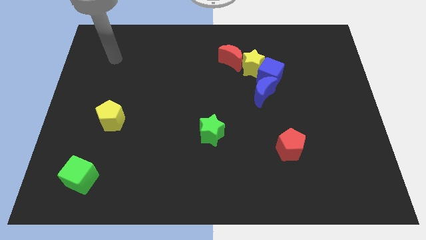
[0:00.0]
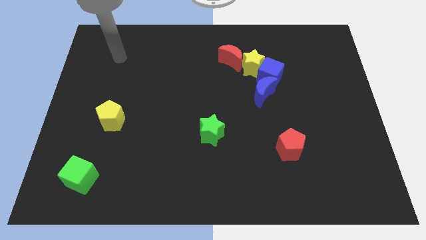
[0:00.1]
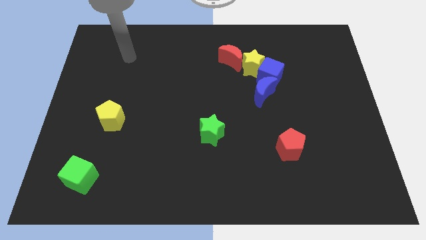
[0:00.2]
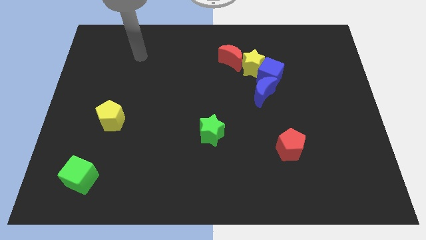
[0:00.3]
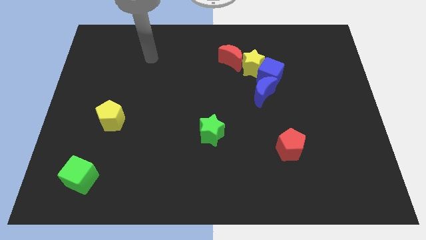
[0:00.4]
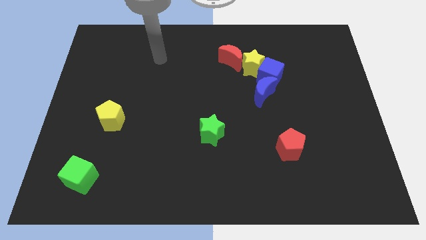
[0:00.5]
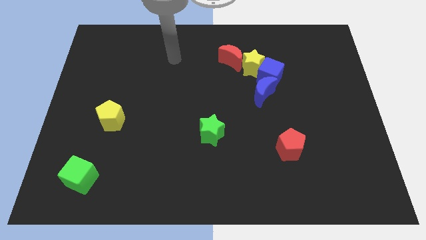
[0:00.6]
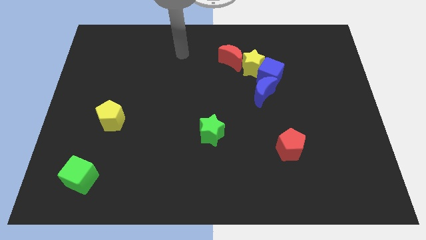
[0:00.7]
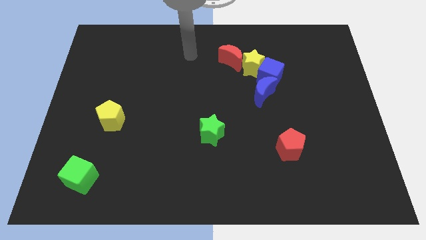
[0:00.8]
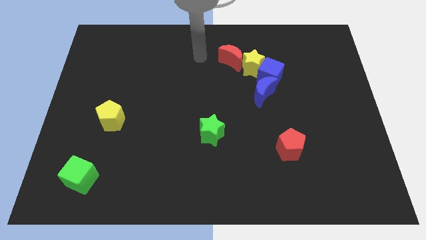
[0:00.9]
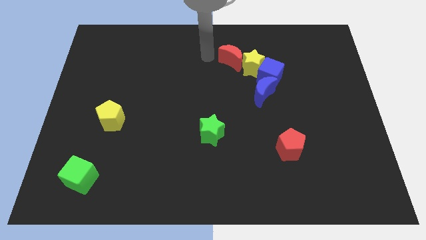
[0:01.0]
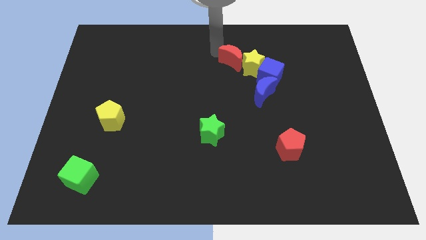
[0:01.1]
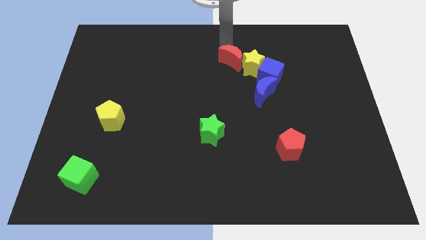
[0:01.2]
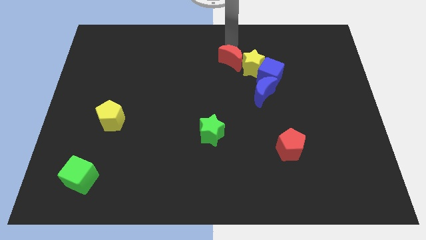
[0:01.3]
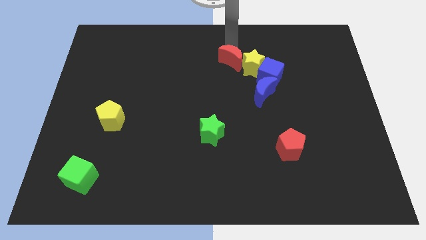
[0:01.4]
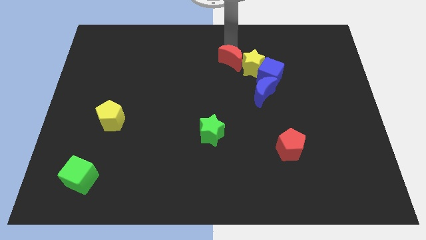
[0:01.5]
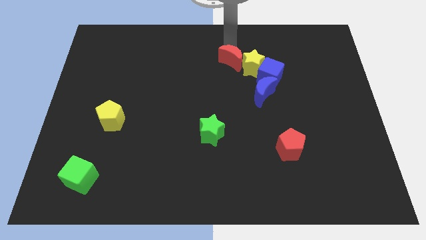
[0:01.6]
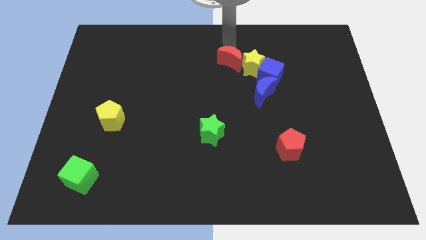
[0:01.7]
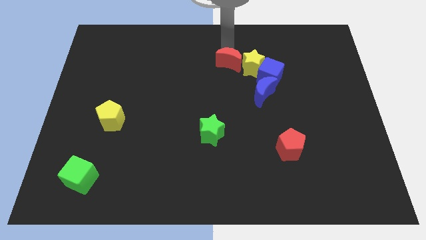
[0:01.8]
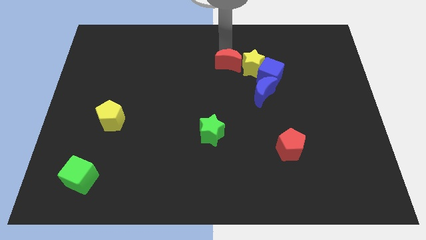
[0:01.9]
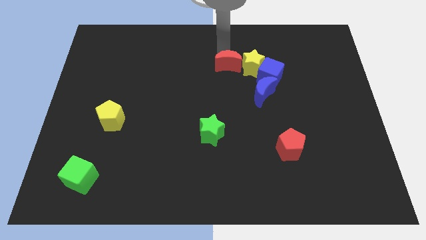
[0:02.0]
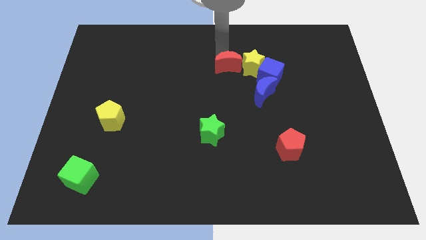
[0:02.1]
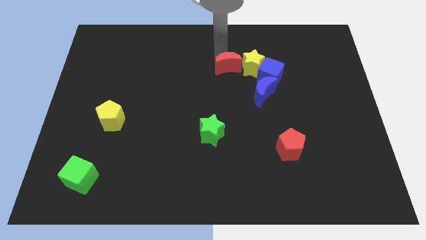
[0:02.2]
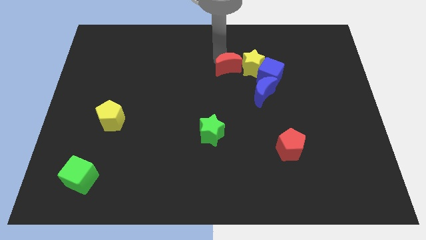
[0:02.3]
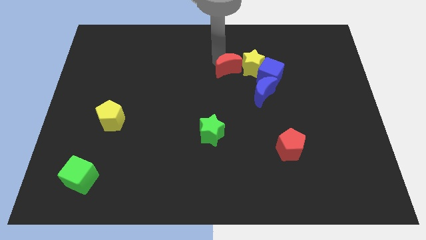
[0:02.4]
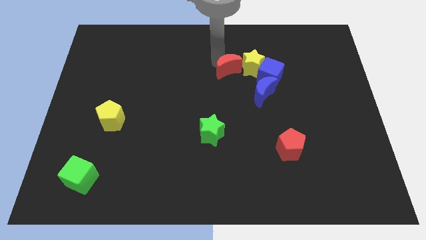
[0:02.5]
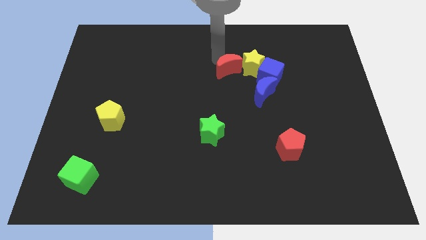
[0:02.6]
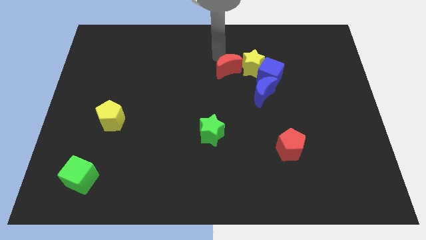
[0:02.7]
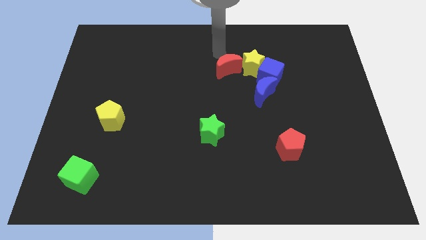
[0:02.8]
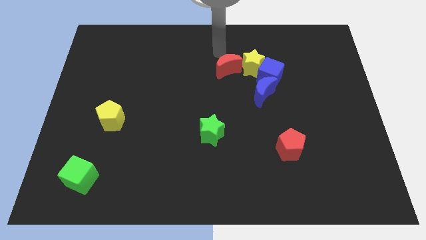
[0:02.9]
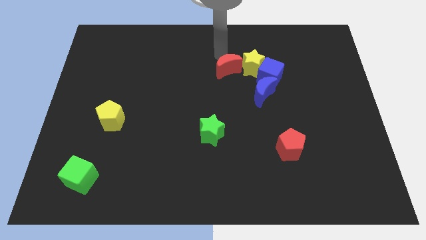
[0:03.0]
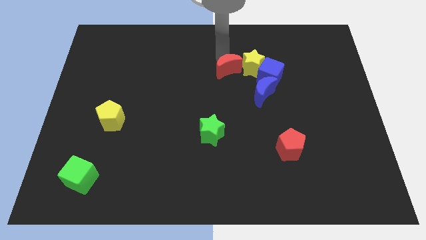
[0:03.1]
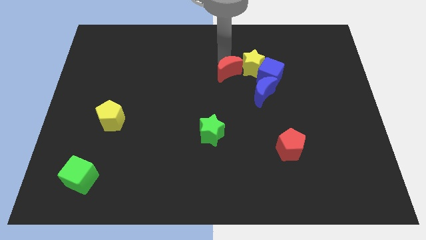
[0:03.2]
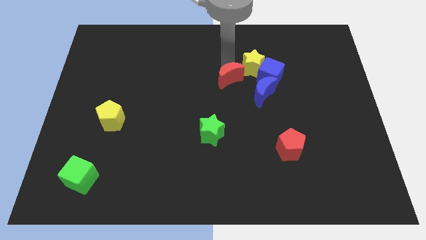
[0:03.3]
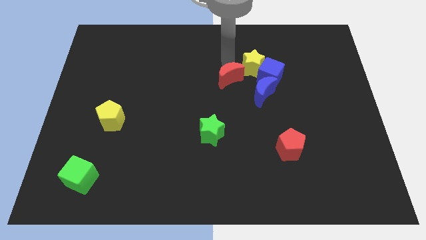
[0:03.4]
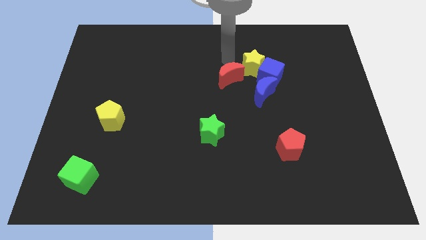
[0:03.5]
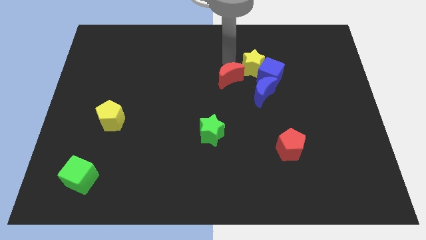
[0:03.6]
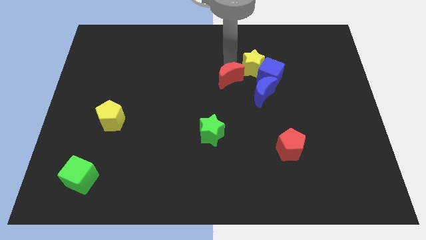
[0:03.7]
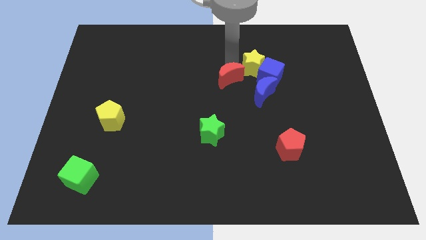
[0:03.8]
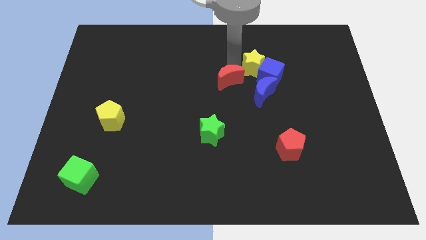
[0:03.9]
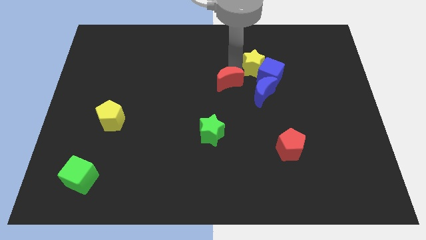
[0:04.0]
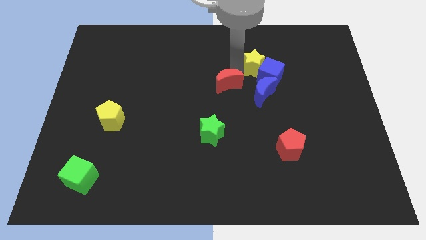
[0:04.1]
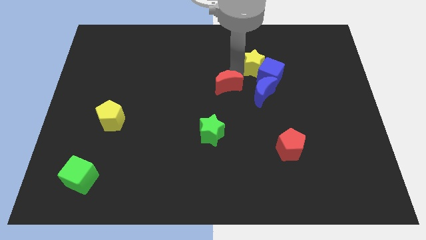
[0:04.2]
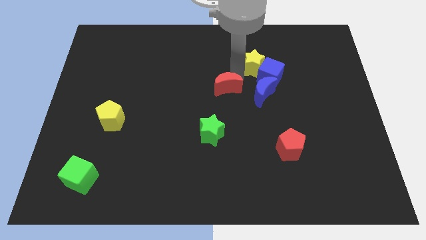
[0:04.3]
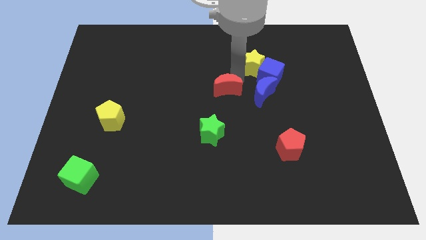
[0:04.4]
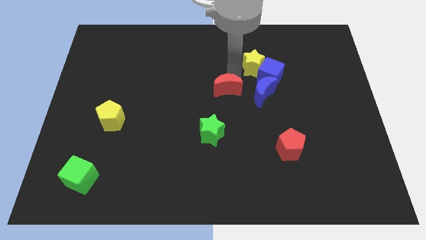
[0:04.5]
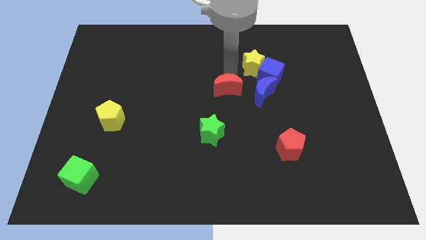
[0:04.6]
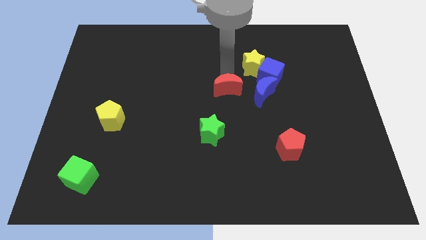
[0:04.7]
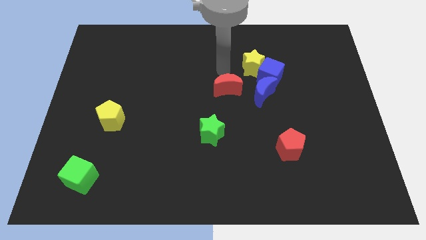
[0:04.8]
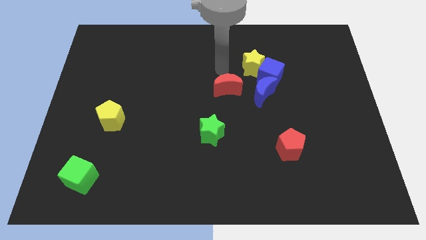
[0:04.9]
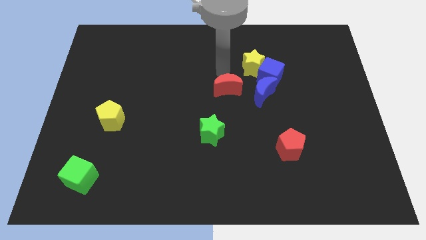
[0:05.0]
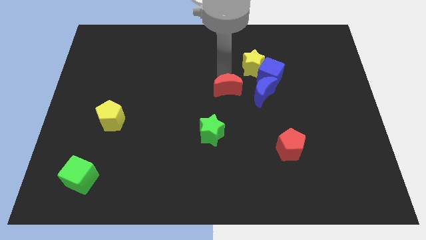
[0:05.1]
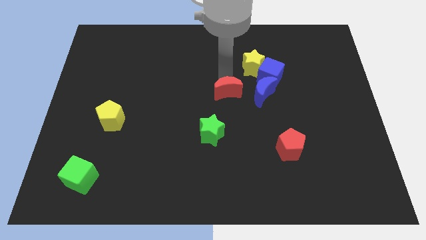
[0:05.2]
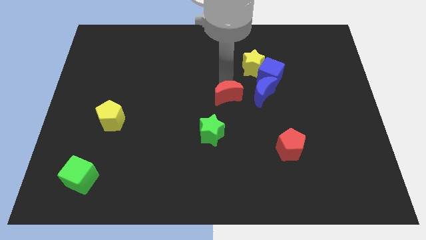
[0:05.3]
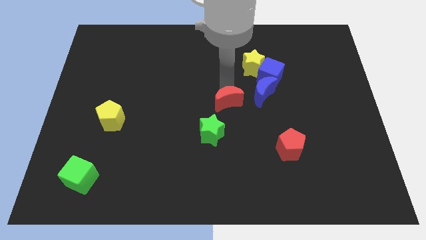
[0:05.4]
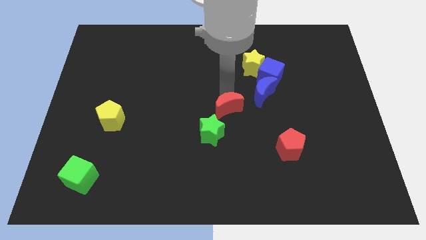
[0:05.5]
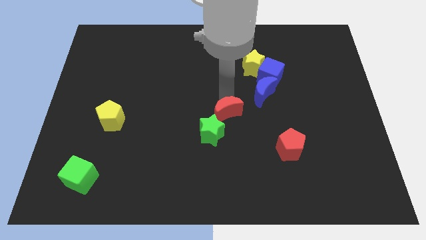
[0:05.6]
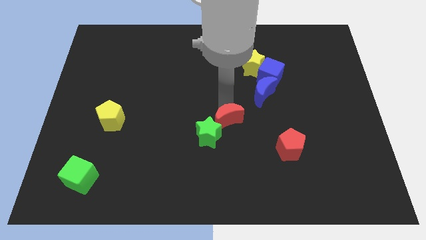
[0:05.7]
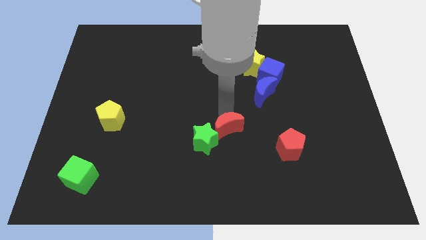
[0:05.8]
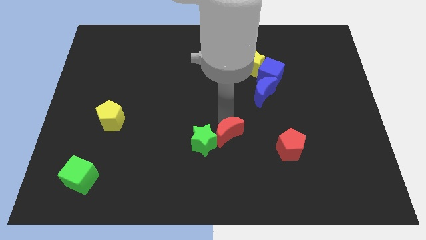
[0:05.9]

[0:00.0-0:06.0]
push the red moon left of the red pentagon
